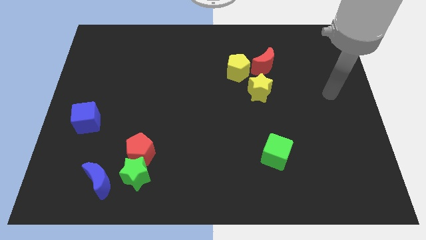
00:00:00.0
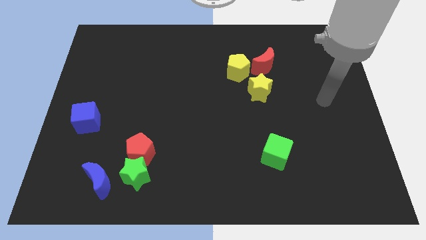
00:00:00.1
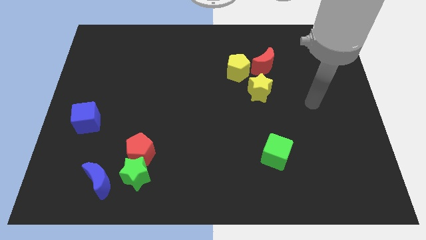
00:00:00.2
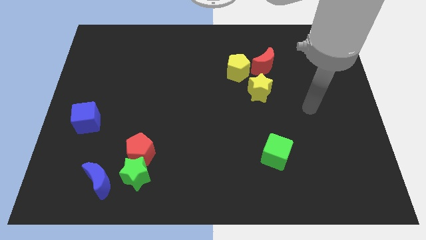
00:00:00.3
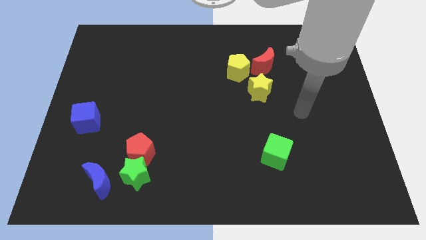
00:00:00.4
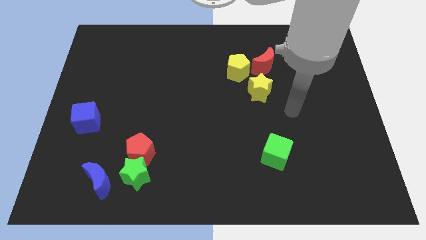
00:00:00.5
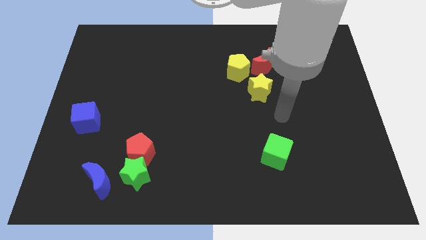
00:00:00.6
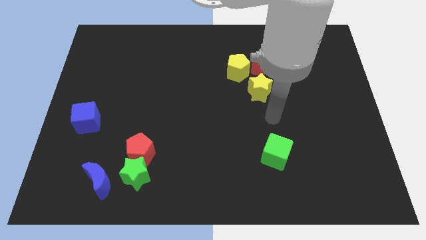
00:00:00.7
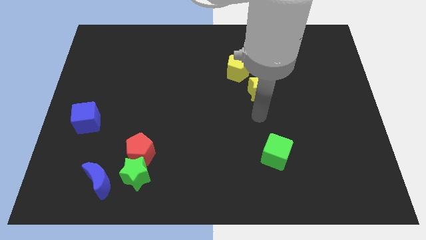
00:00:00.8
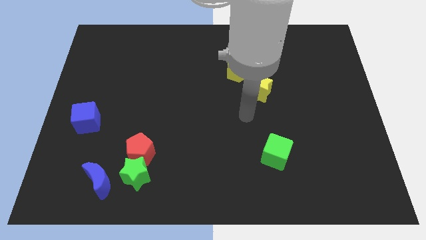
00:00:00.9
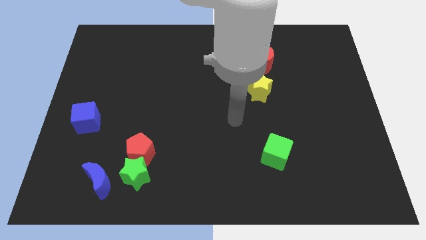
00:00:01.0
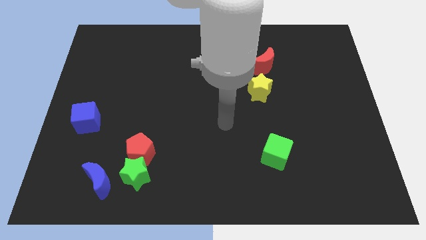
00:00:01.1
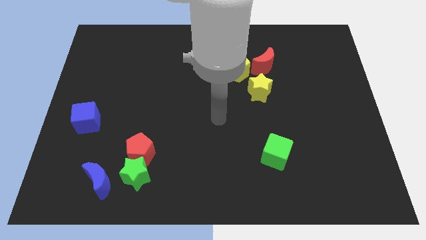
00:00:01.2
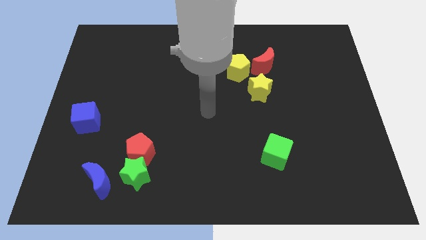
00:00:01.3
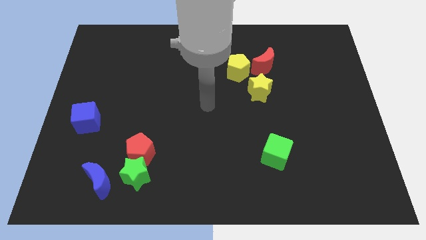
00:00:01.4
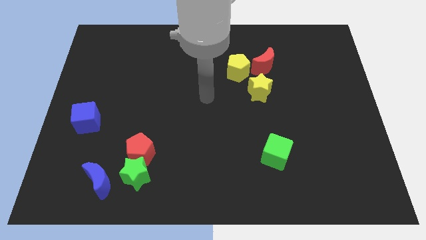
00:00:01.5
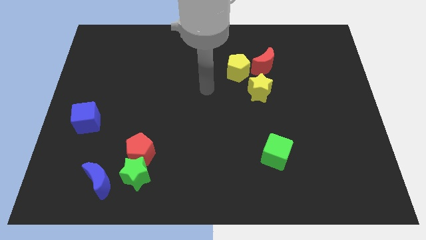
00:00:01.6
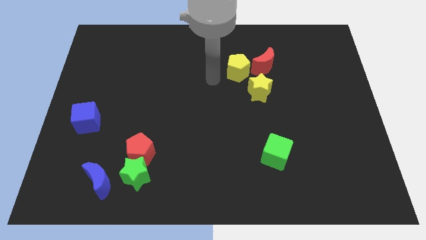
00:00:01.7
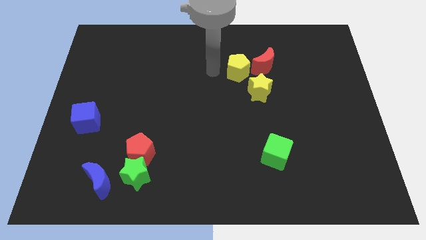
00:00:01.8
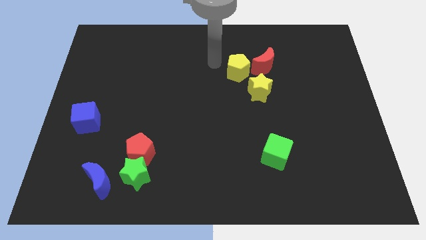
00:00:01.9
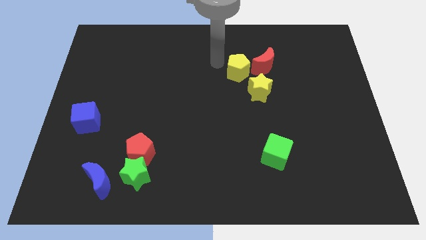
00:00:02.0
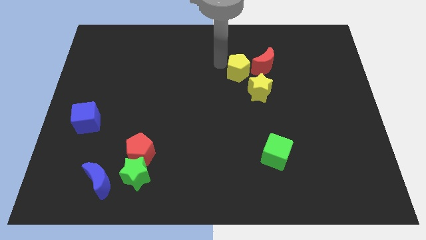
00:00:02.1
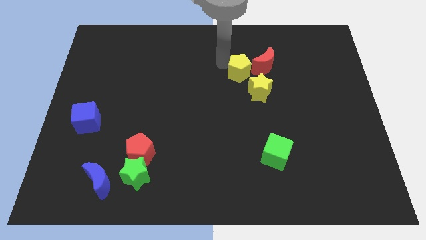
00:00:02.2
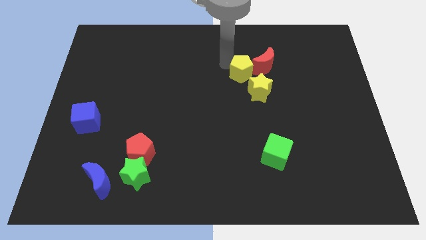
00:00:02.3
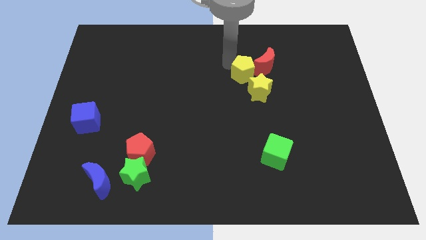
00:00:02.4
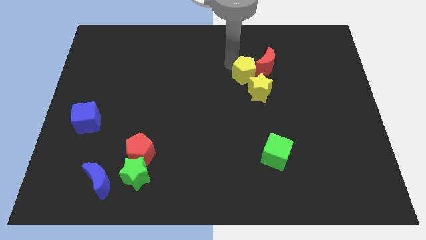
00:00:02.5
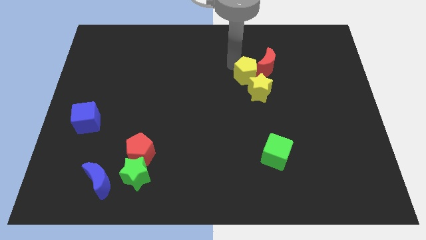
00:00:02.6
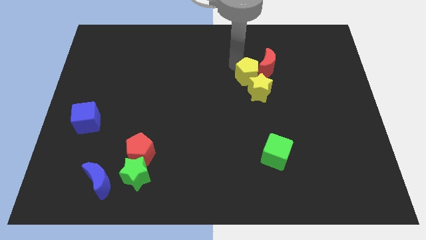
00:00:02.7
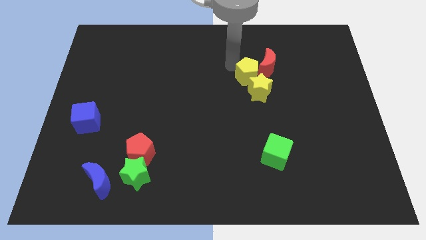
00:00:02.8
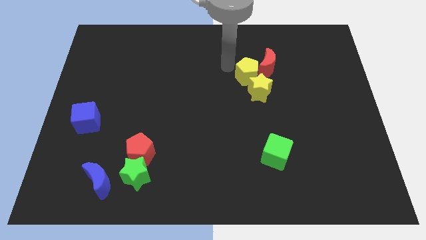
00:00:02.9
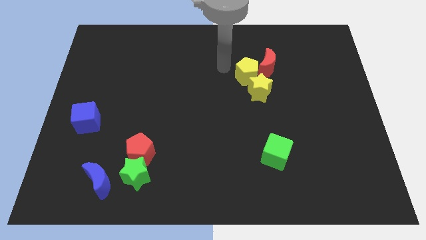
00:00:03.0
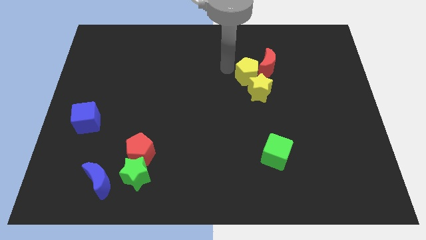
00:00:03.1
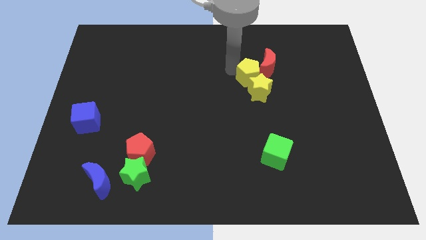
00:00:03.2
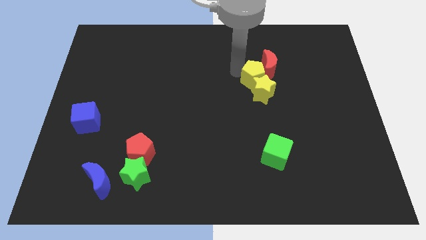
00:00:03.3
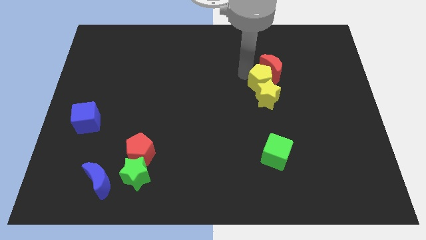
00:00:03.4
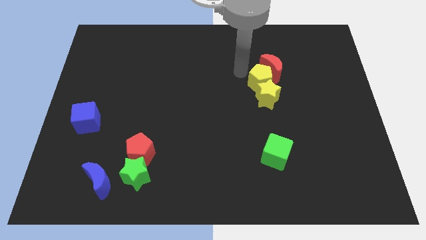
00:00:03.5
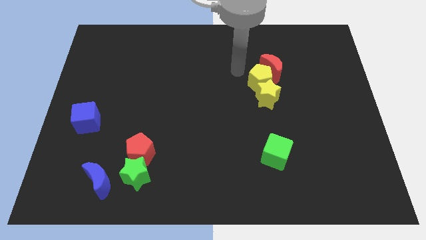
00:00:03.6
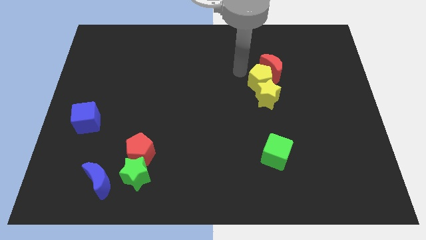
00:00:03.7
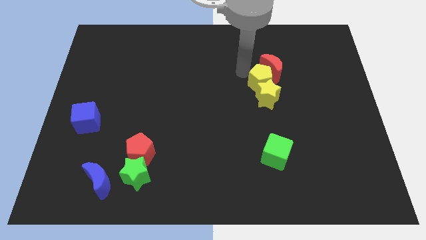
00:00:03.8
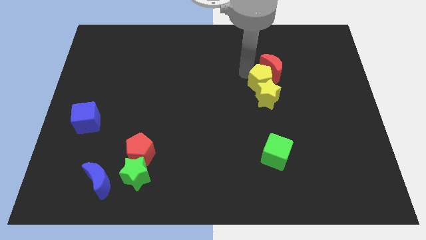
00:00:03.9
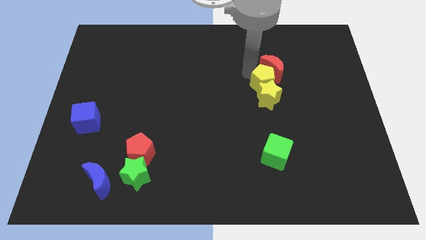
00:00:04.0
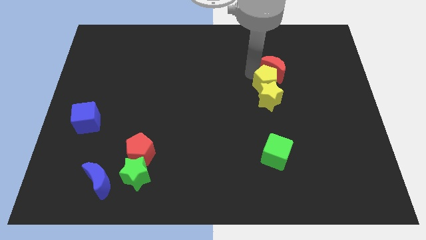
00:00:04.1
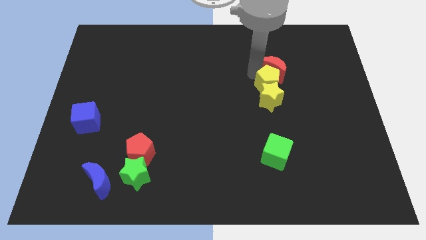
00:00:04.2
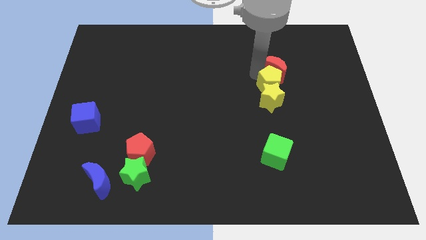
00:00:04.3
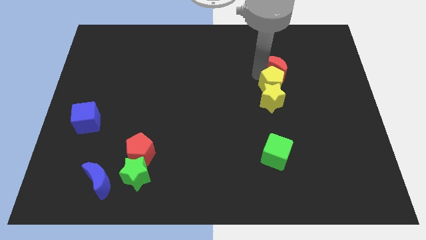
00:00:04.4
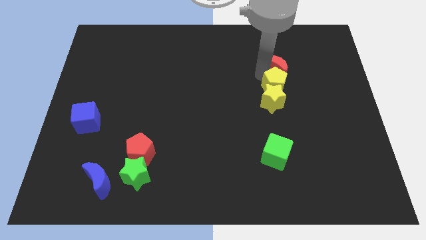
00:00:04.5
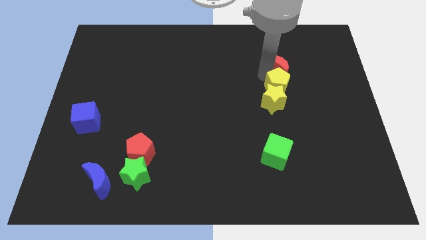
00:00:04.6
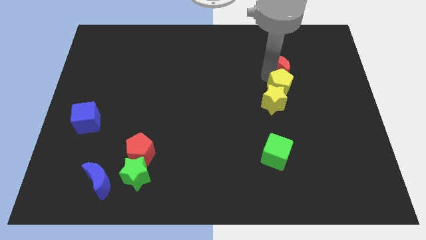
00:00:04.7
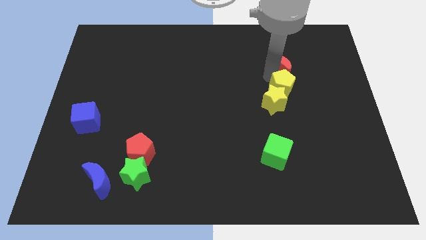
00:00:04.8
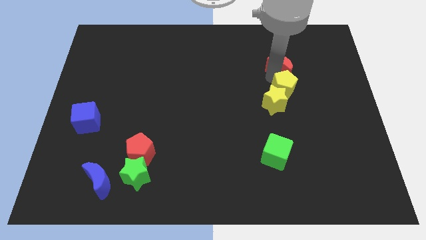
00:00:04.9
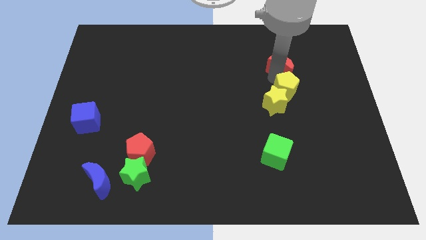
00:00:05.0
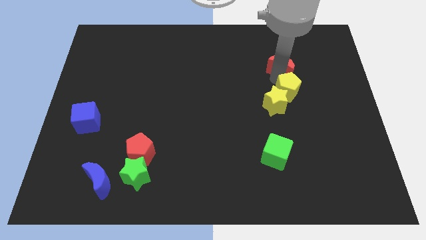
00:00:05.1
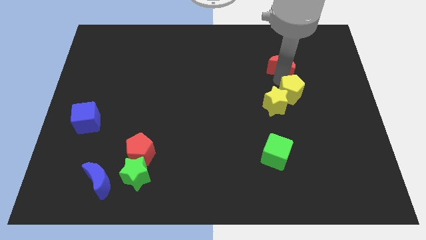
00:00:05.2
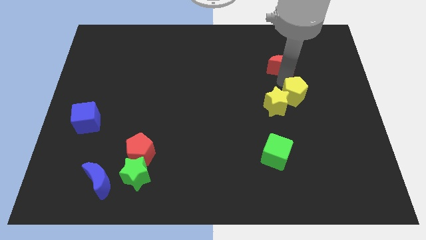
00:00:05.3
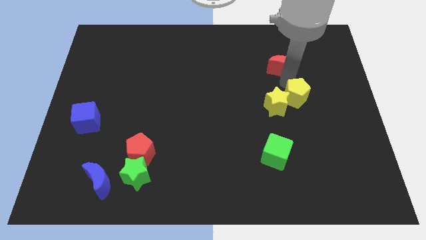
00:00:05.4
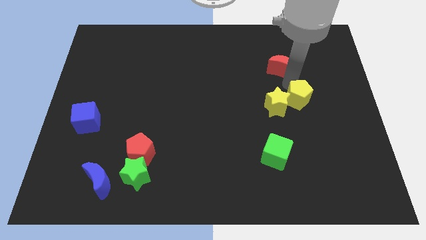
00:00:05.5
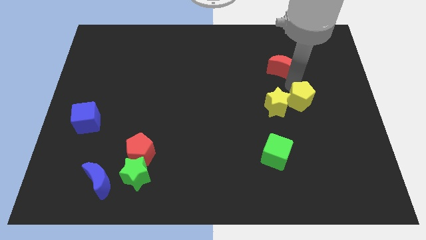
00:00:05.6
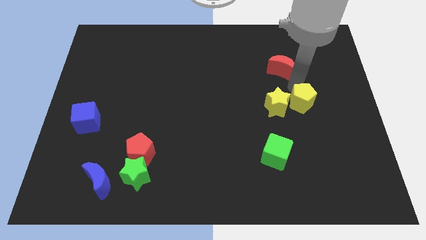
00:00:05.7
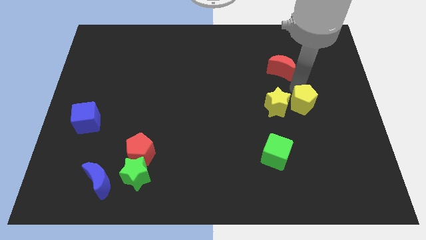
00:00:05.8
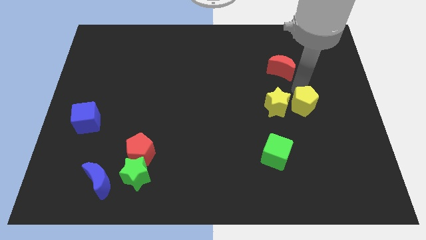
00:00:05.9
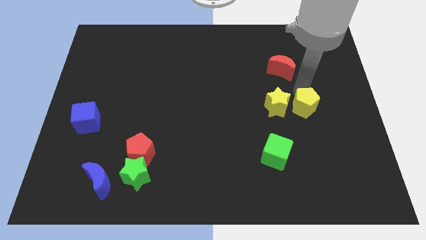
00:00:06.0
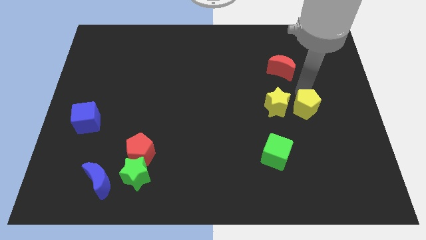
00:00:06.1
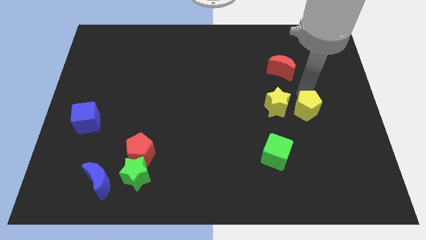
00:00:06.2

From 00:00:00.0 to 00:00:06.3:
move the yellow pentagon downwards and to the right

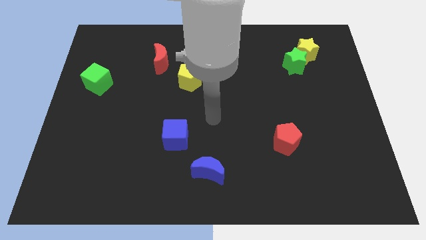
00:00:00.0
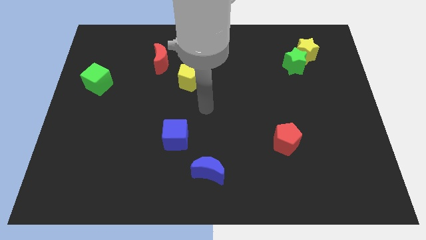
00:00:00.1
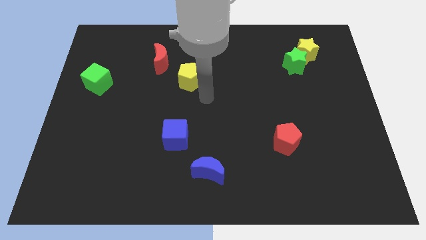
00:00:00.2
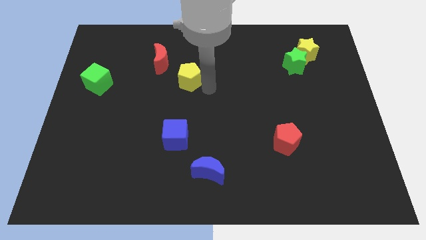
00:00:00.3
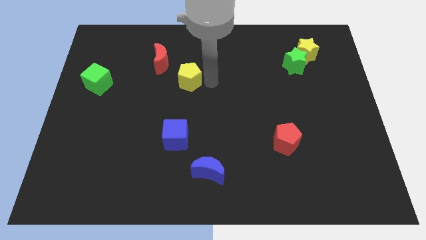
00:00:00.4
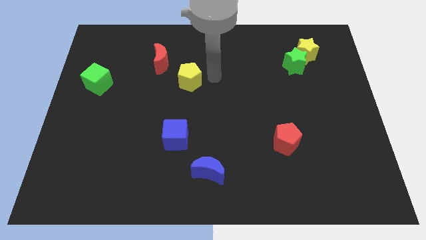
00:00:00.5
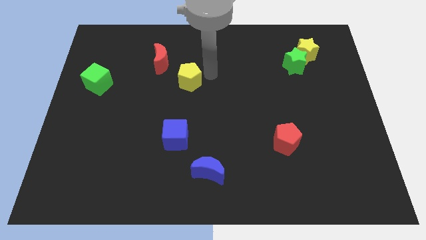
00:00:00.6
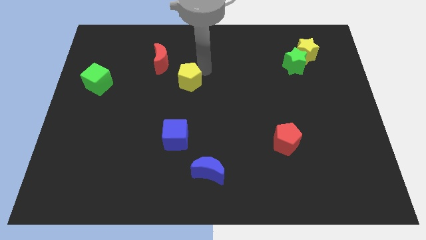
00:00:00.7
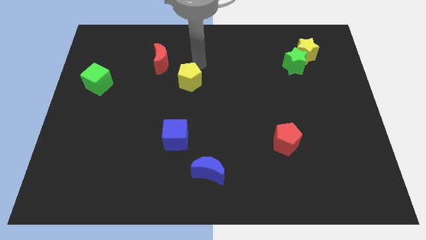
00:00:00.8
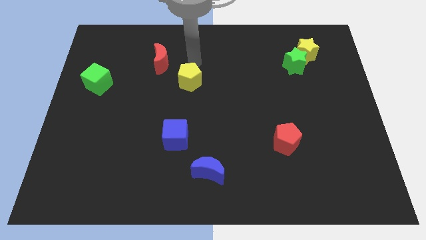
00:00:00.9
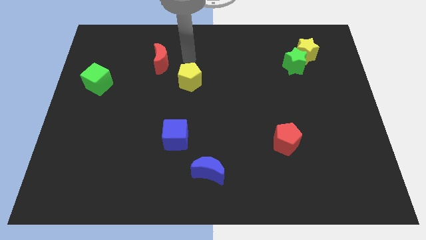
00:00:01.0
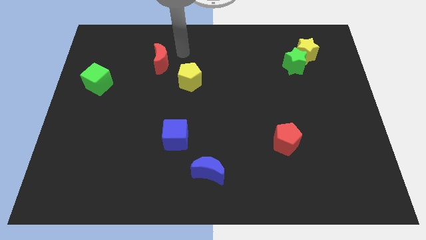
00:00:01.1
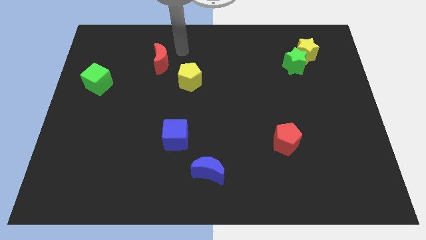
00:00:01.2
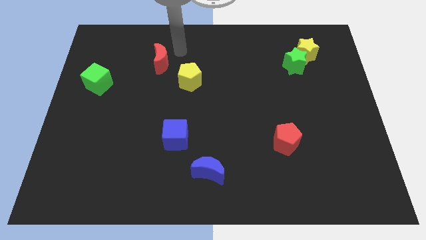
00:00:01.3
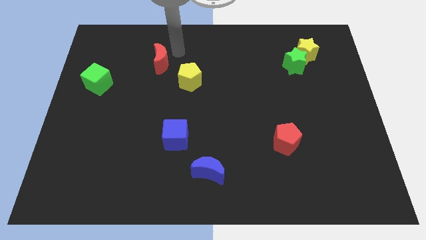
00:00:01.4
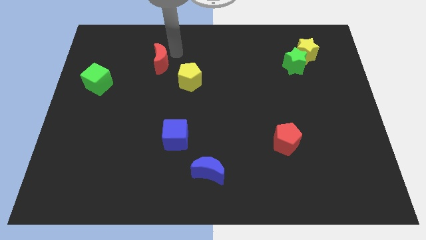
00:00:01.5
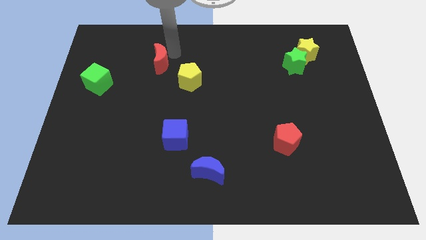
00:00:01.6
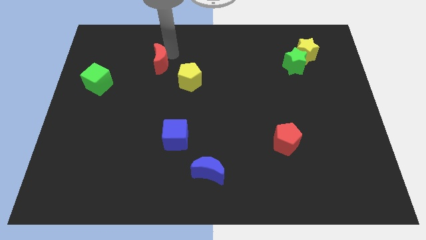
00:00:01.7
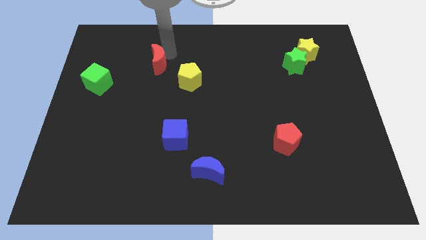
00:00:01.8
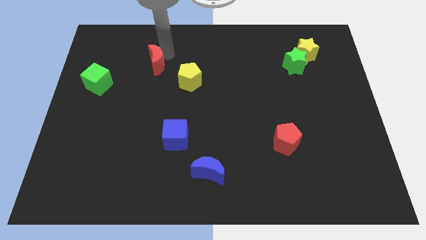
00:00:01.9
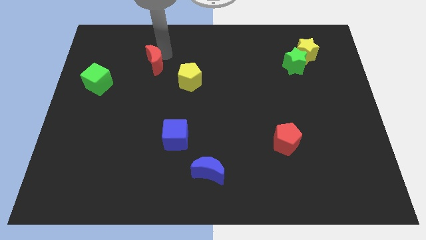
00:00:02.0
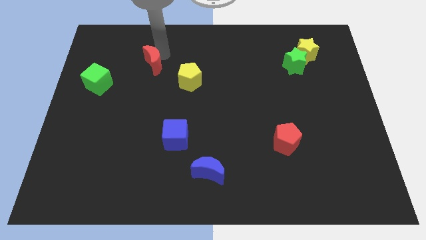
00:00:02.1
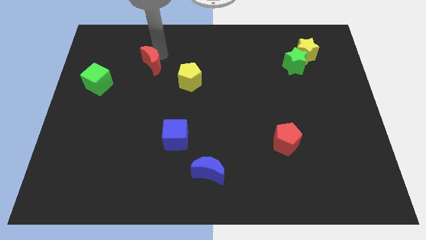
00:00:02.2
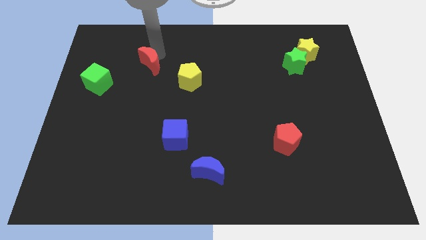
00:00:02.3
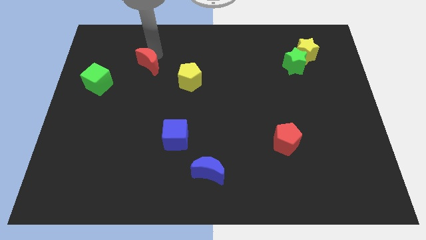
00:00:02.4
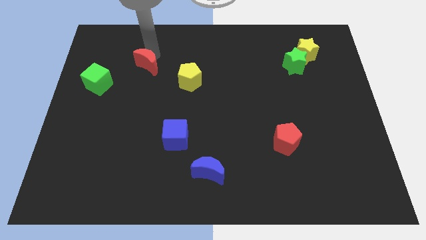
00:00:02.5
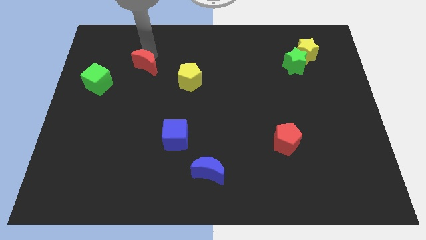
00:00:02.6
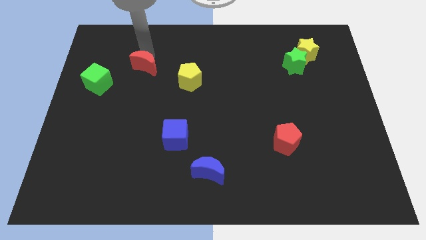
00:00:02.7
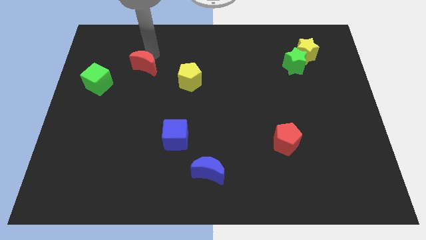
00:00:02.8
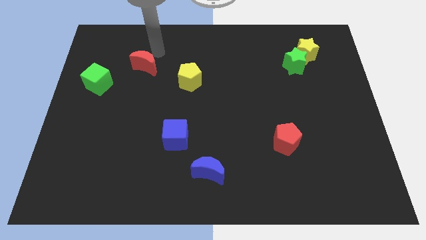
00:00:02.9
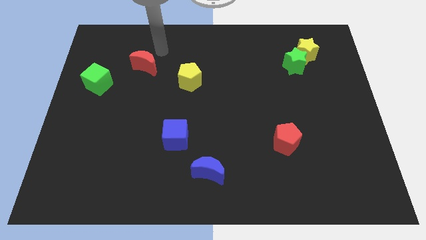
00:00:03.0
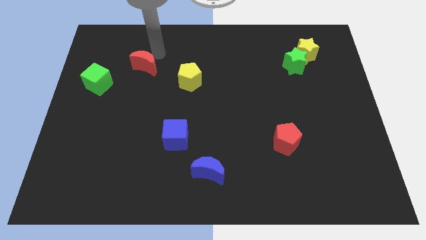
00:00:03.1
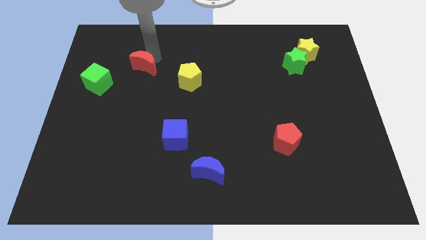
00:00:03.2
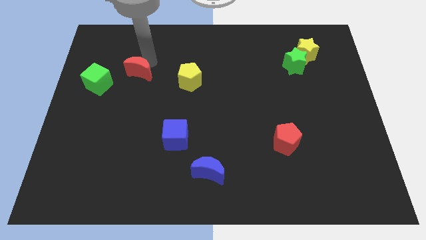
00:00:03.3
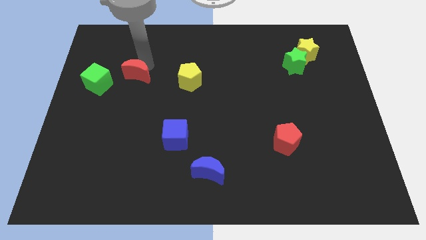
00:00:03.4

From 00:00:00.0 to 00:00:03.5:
move the red moon a little downwards and to the left
